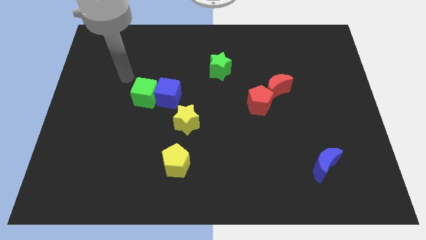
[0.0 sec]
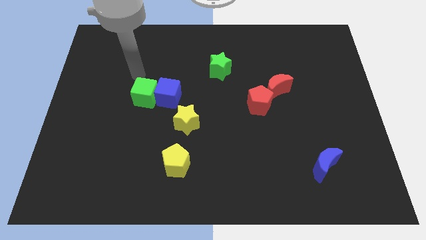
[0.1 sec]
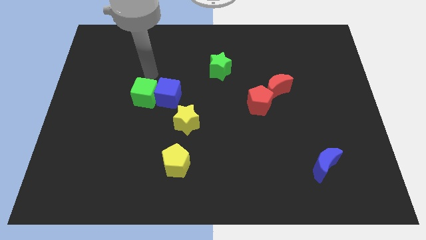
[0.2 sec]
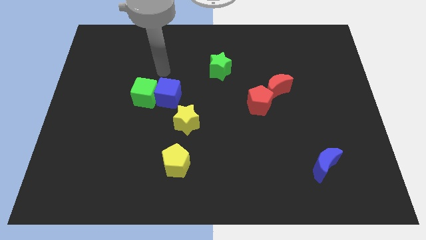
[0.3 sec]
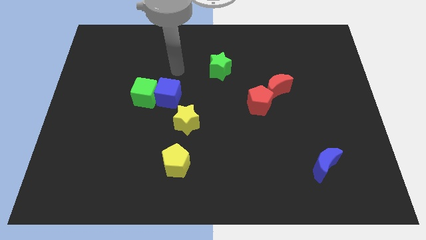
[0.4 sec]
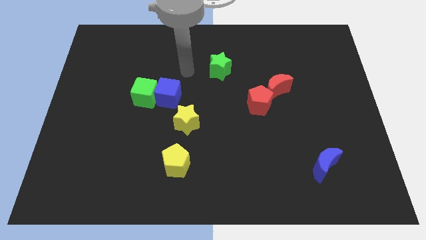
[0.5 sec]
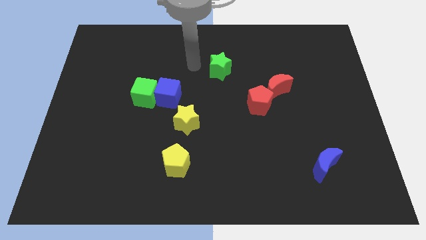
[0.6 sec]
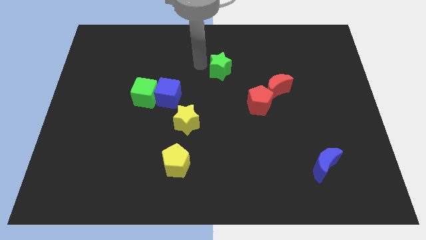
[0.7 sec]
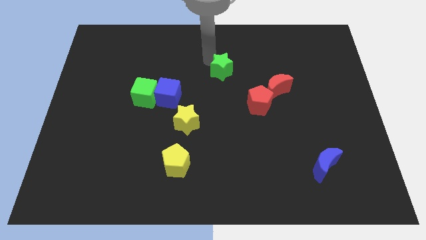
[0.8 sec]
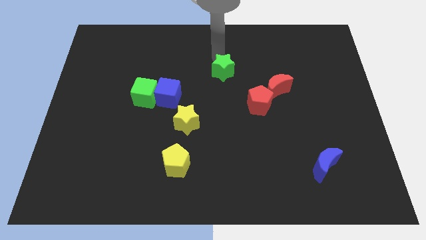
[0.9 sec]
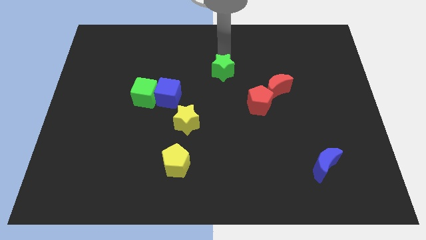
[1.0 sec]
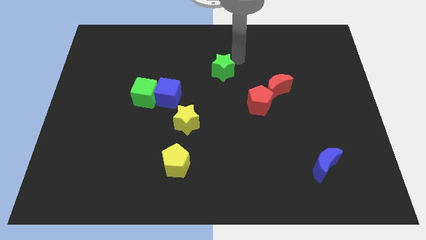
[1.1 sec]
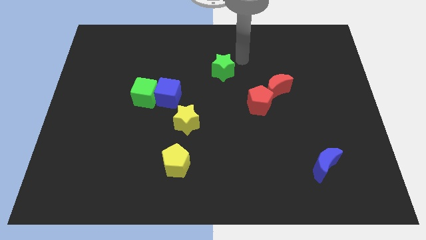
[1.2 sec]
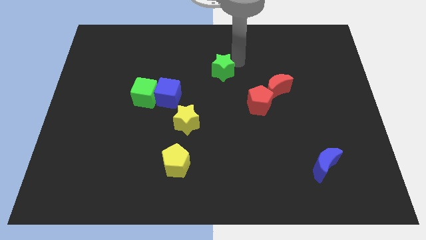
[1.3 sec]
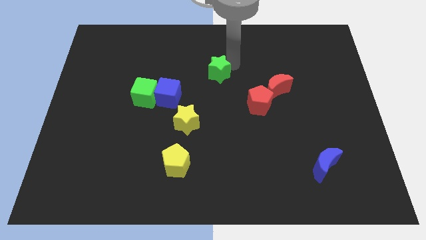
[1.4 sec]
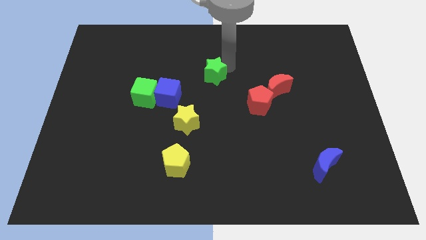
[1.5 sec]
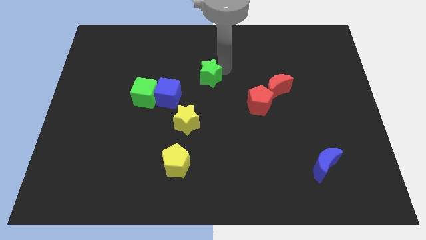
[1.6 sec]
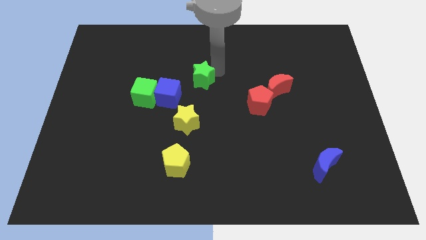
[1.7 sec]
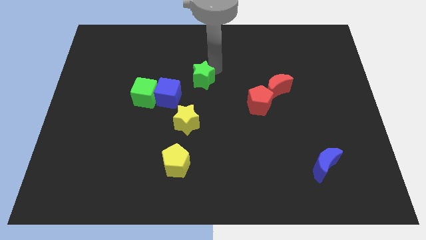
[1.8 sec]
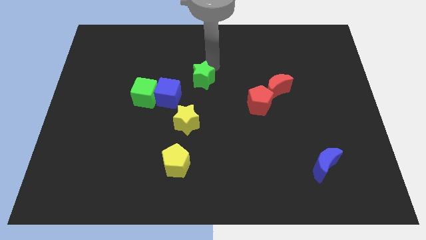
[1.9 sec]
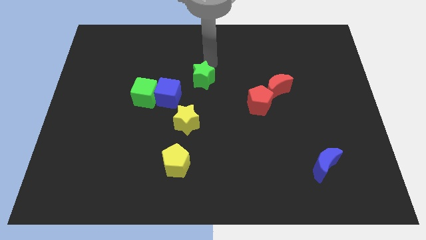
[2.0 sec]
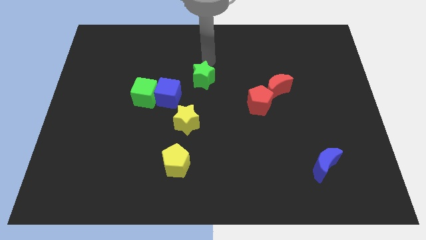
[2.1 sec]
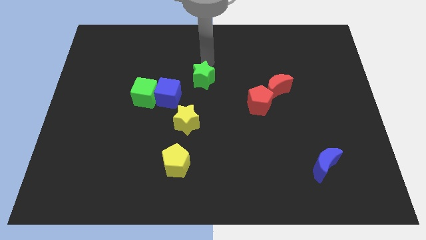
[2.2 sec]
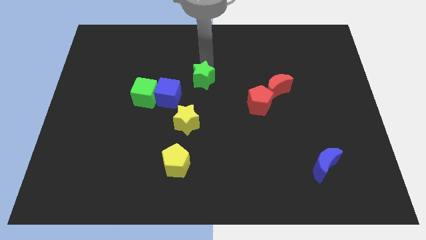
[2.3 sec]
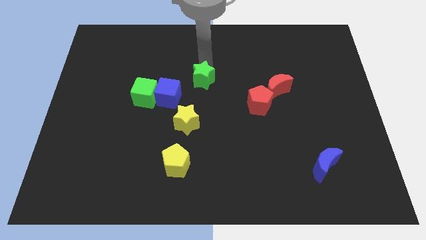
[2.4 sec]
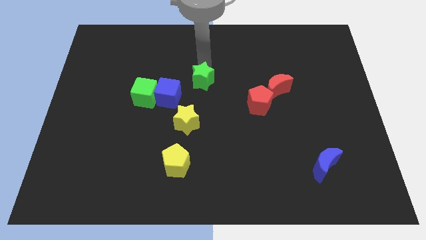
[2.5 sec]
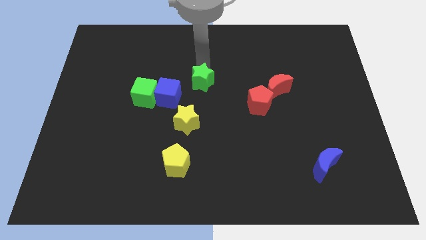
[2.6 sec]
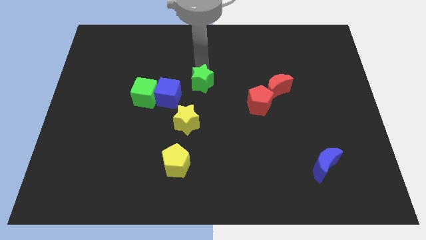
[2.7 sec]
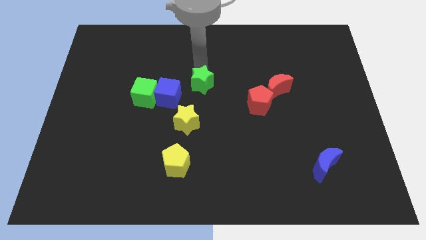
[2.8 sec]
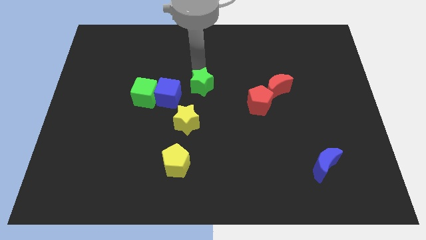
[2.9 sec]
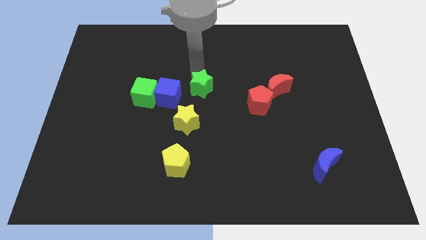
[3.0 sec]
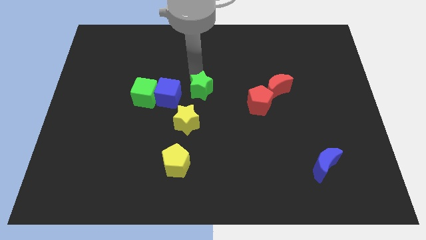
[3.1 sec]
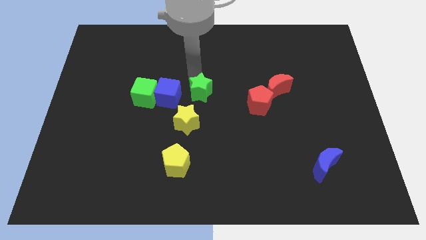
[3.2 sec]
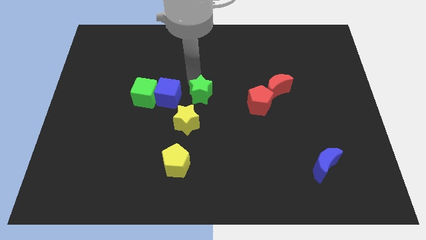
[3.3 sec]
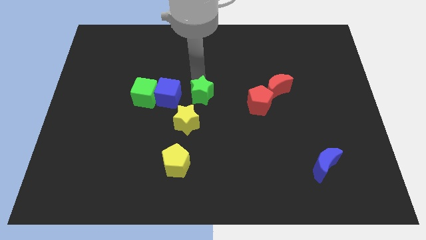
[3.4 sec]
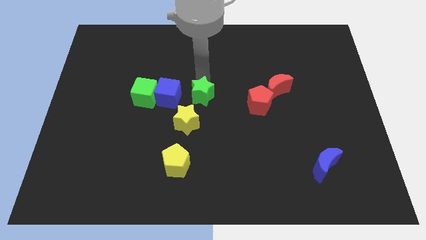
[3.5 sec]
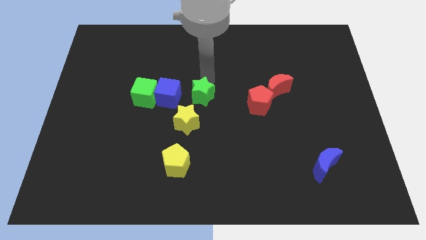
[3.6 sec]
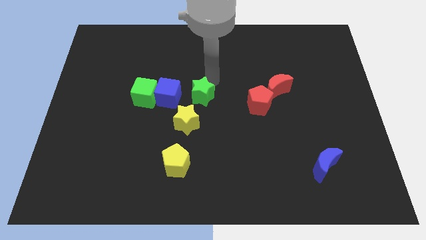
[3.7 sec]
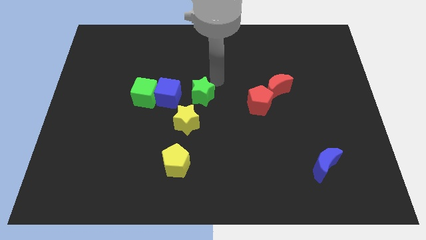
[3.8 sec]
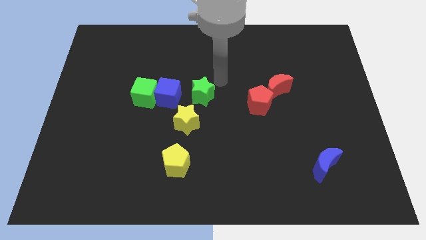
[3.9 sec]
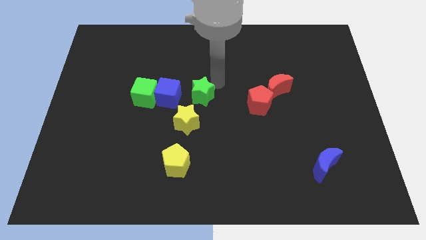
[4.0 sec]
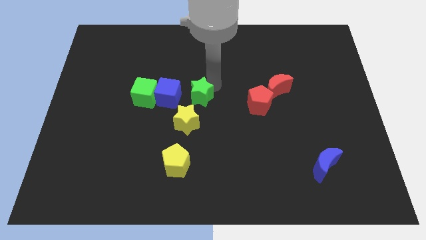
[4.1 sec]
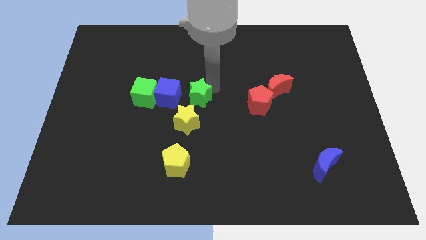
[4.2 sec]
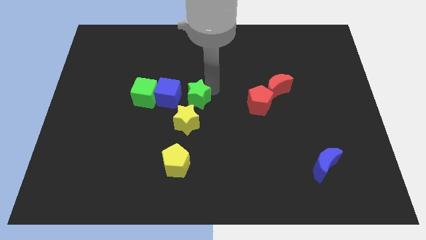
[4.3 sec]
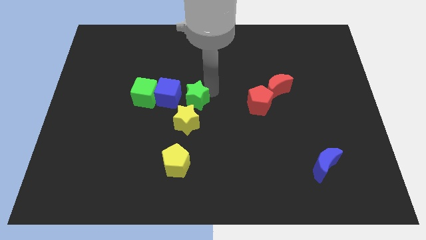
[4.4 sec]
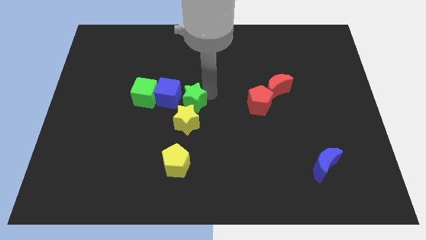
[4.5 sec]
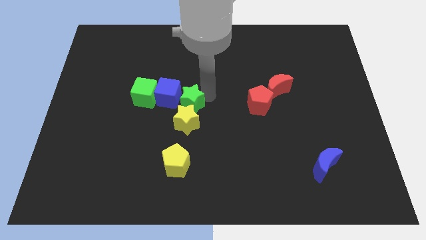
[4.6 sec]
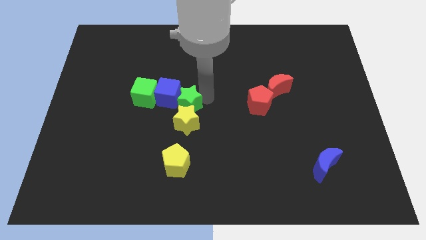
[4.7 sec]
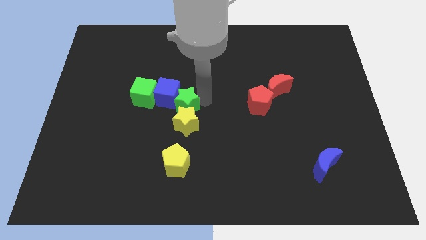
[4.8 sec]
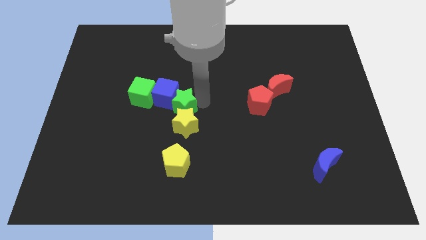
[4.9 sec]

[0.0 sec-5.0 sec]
push the green star to the bottom right side of the green cube

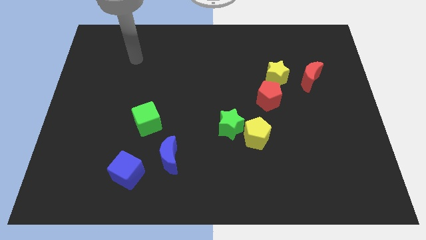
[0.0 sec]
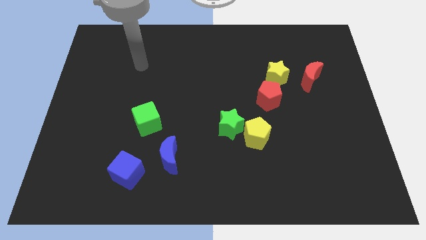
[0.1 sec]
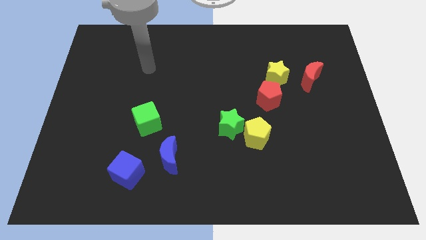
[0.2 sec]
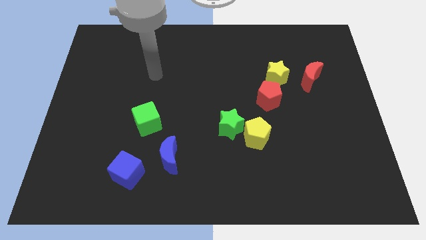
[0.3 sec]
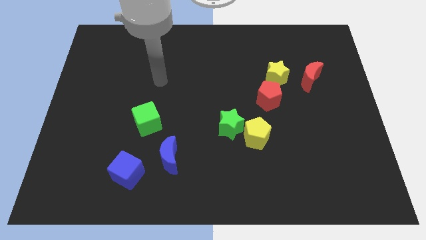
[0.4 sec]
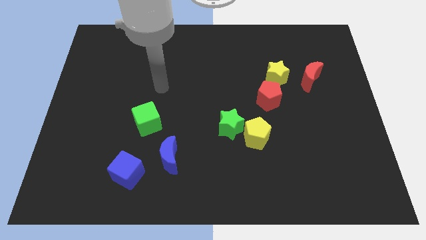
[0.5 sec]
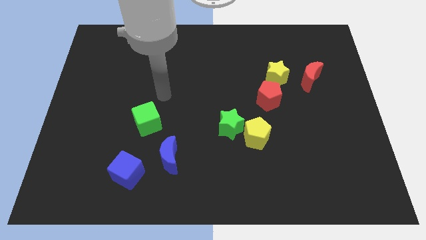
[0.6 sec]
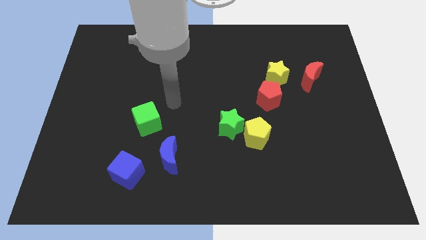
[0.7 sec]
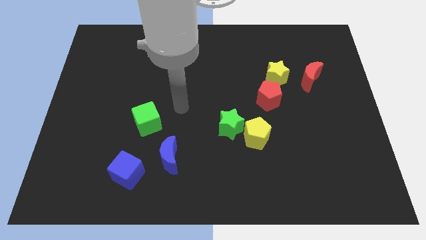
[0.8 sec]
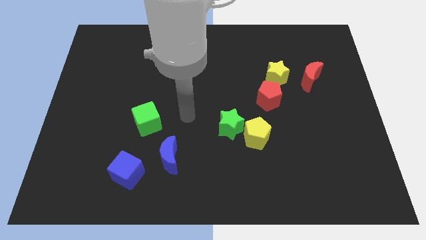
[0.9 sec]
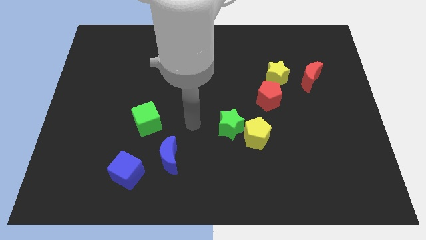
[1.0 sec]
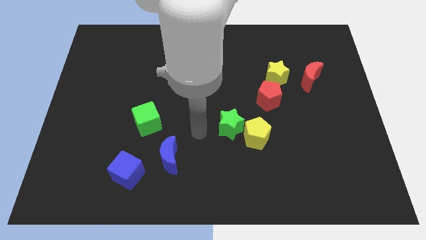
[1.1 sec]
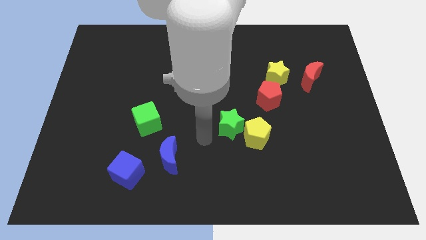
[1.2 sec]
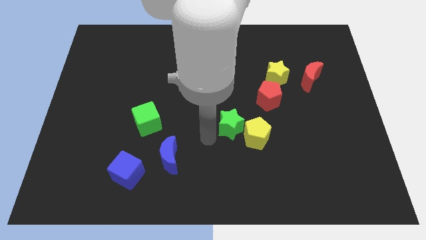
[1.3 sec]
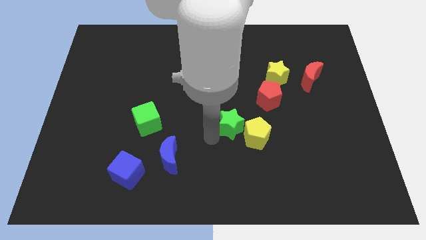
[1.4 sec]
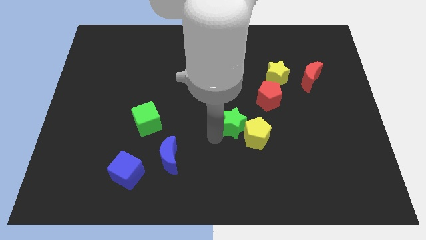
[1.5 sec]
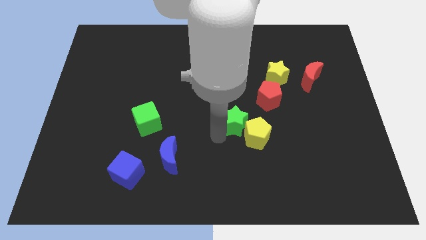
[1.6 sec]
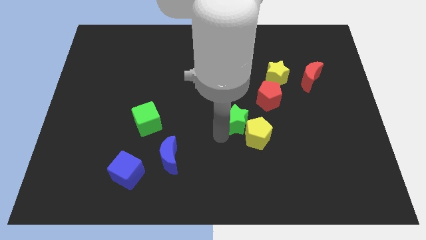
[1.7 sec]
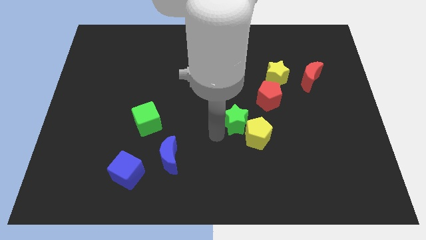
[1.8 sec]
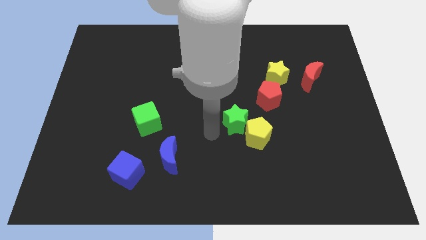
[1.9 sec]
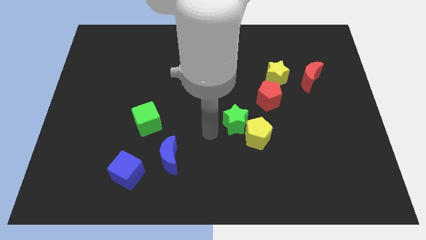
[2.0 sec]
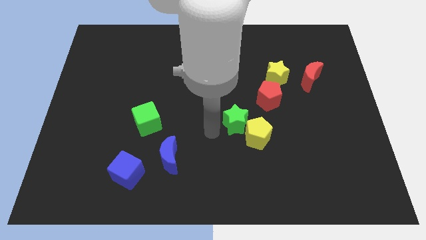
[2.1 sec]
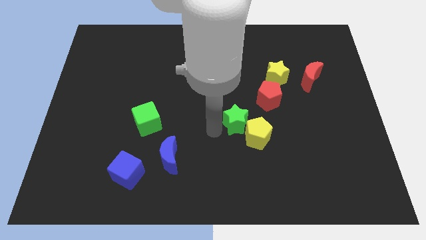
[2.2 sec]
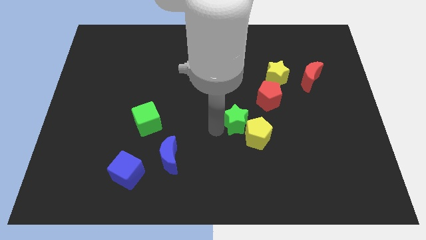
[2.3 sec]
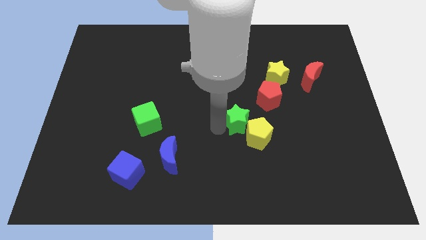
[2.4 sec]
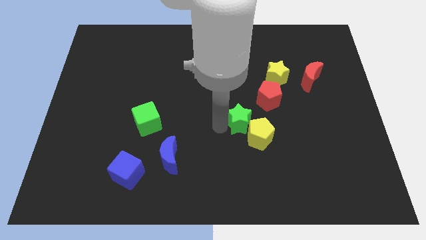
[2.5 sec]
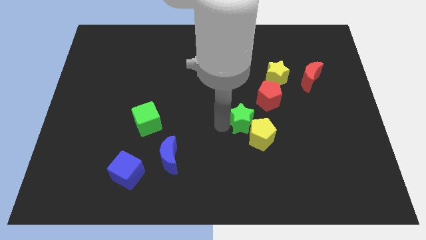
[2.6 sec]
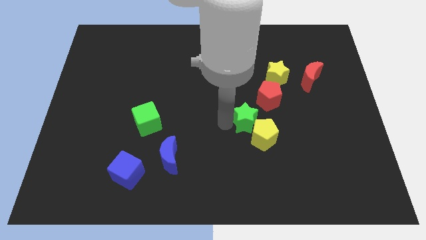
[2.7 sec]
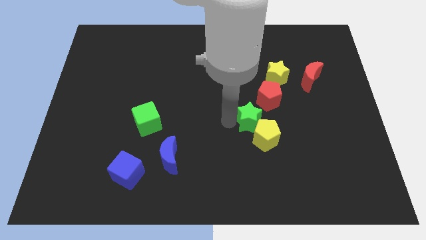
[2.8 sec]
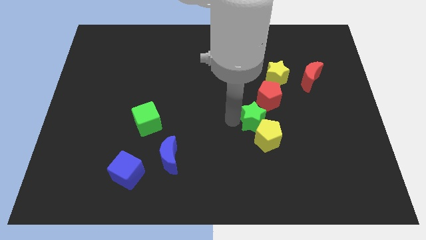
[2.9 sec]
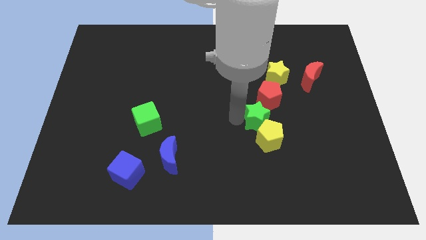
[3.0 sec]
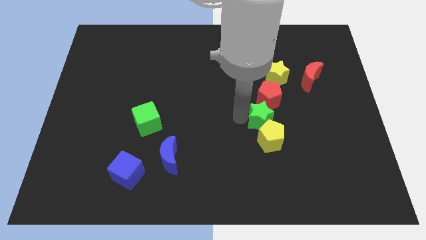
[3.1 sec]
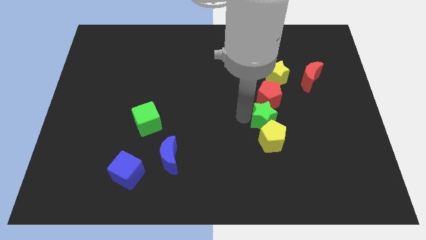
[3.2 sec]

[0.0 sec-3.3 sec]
push the green star to the top right side of the yellow pentagon
